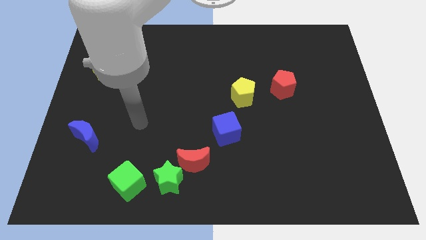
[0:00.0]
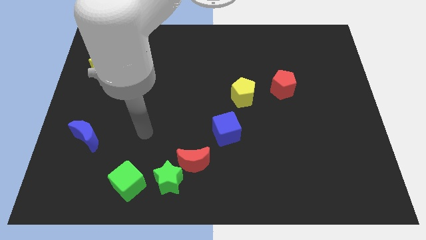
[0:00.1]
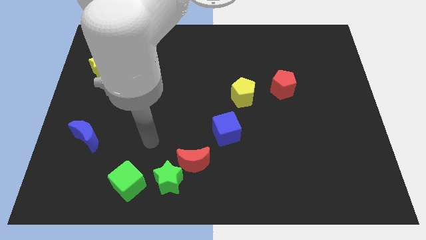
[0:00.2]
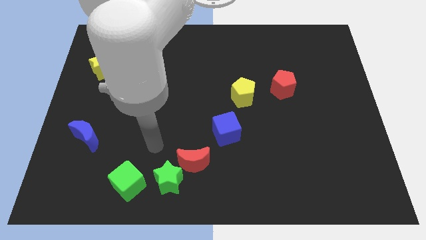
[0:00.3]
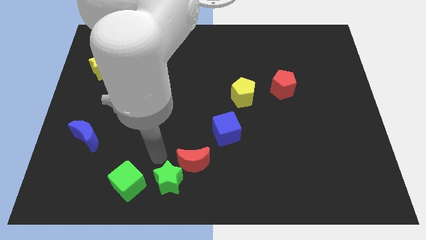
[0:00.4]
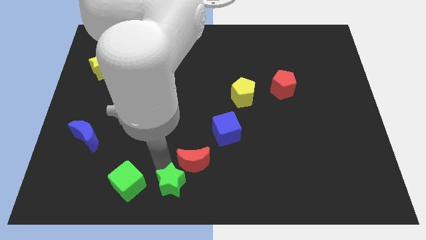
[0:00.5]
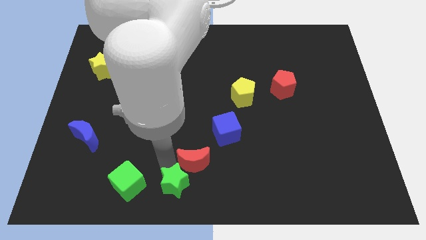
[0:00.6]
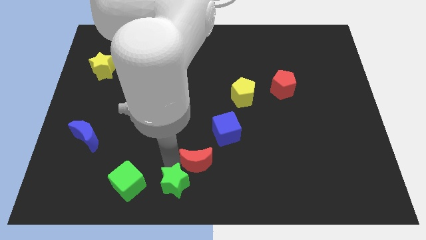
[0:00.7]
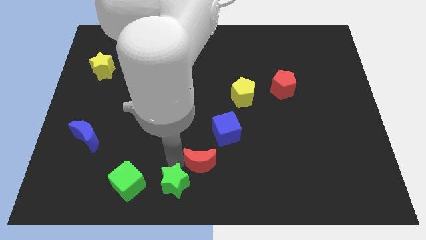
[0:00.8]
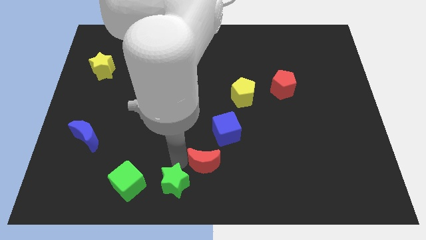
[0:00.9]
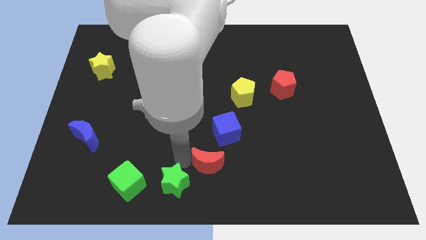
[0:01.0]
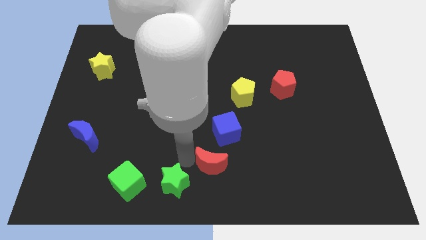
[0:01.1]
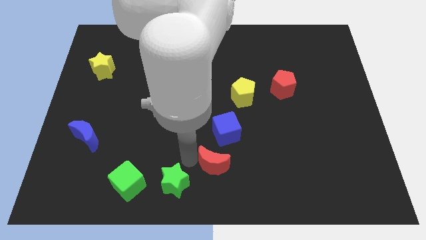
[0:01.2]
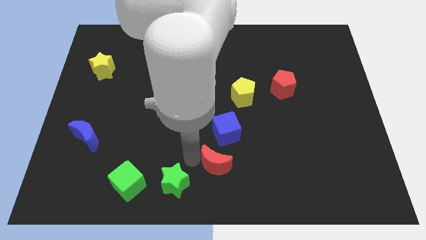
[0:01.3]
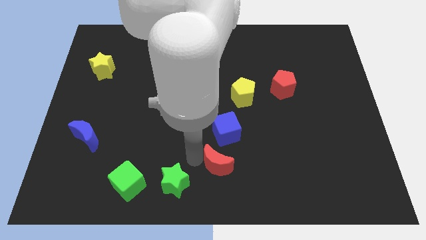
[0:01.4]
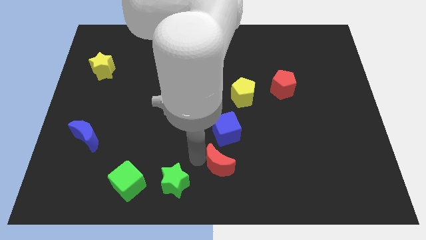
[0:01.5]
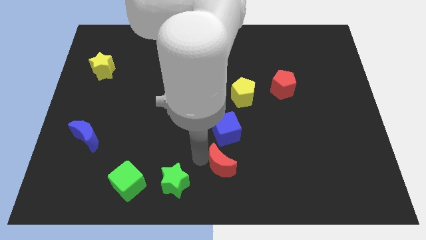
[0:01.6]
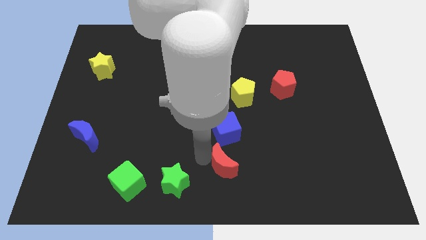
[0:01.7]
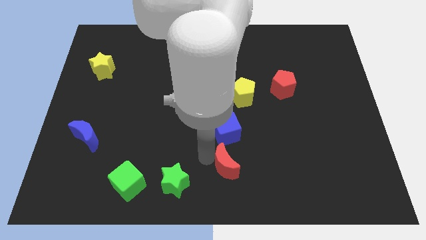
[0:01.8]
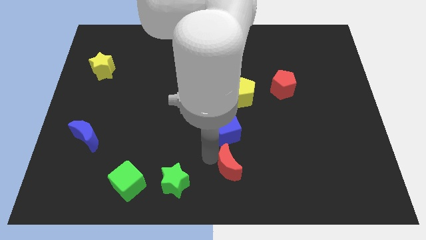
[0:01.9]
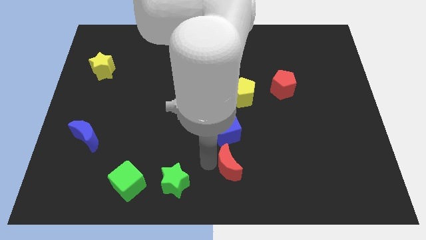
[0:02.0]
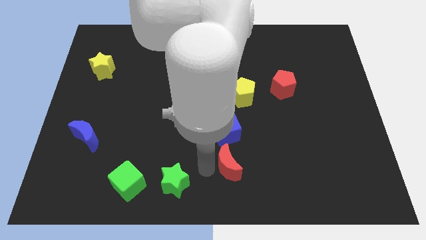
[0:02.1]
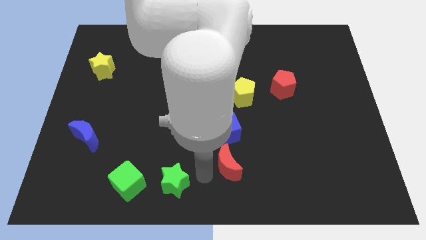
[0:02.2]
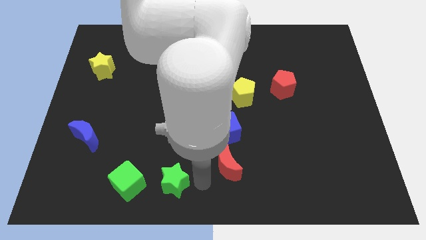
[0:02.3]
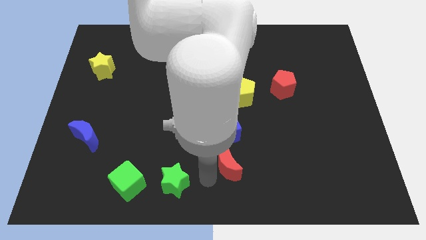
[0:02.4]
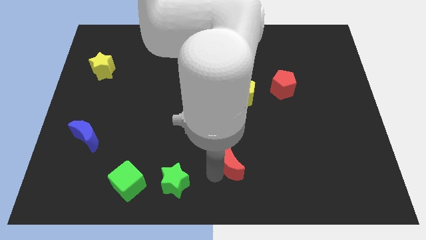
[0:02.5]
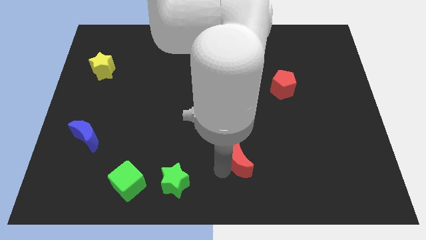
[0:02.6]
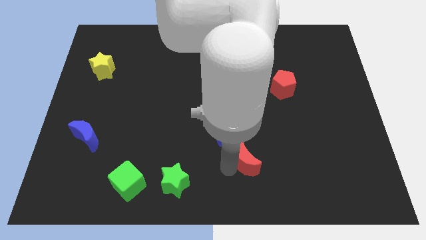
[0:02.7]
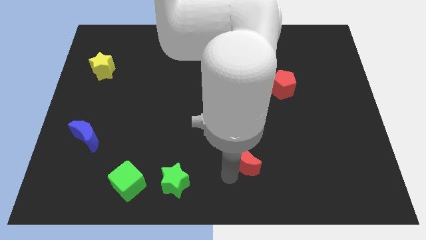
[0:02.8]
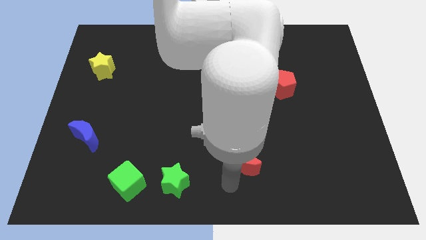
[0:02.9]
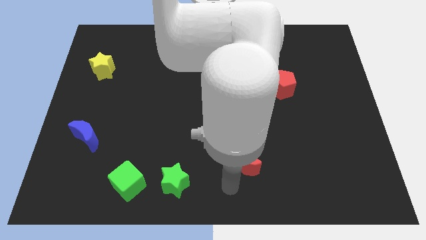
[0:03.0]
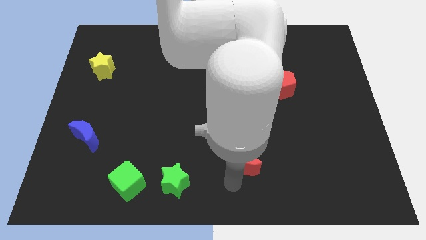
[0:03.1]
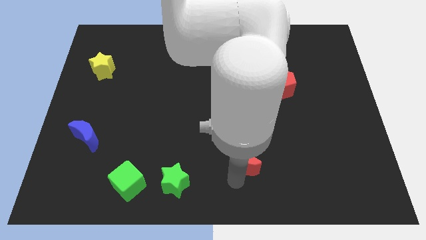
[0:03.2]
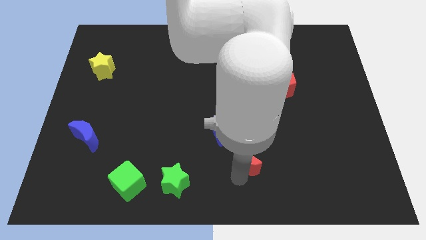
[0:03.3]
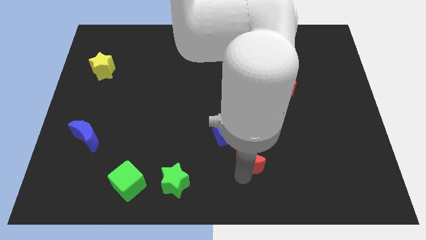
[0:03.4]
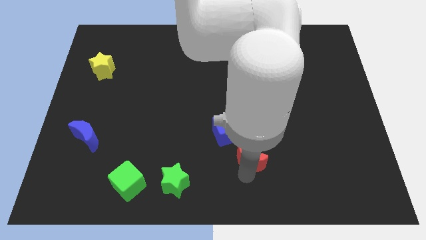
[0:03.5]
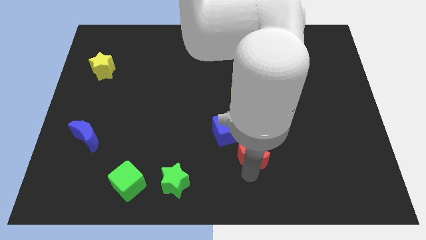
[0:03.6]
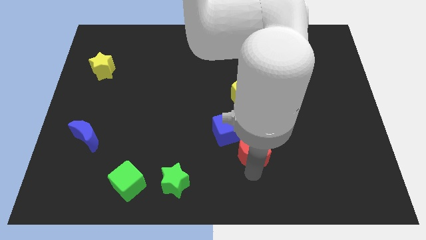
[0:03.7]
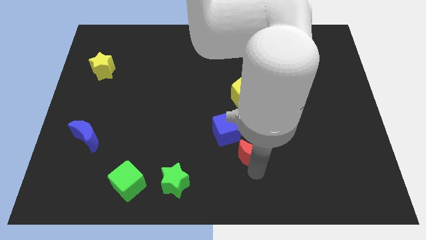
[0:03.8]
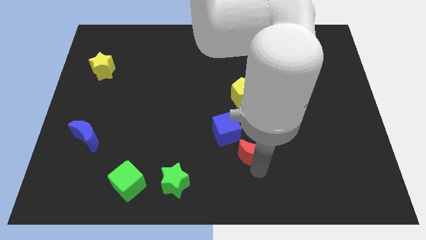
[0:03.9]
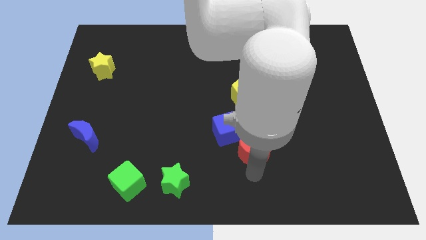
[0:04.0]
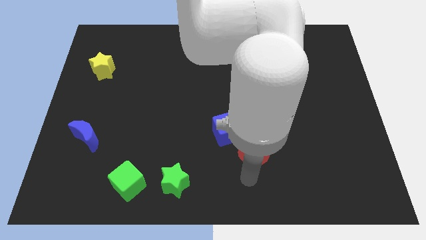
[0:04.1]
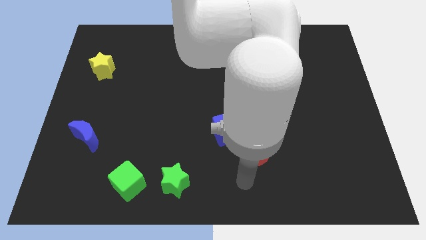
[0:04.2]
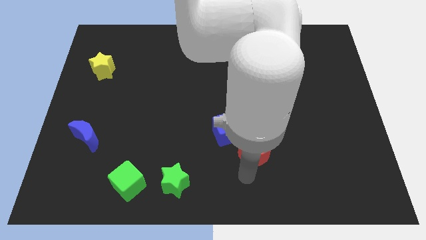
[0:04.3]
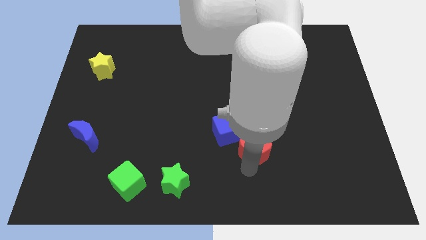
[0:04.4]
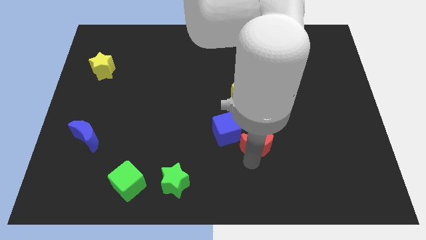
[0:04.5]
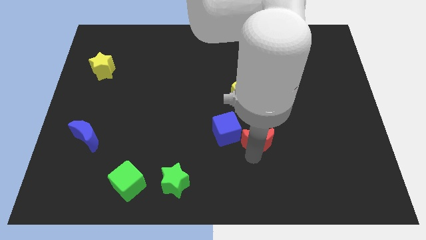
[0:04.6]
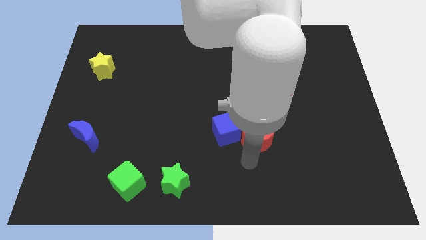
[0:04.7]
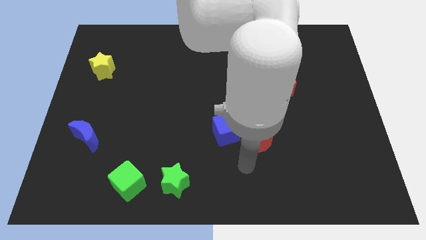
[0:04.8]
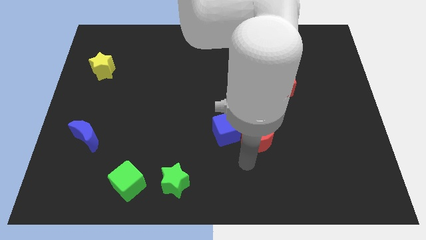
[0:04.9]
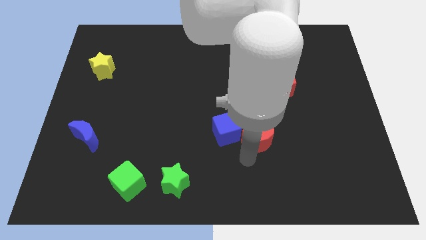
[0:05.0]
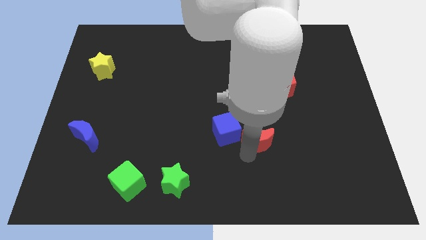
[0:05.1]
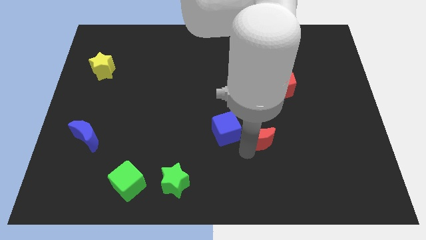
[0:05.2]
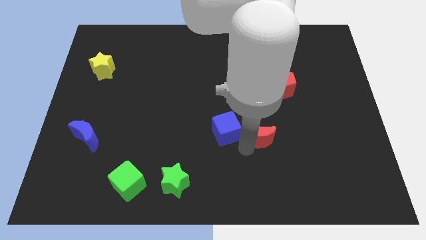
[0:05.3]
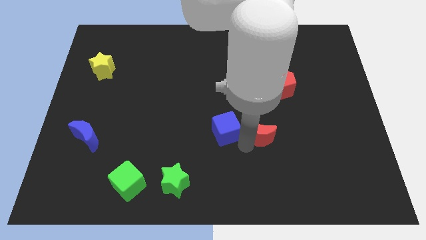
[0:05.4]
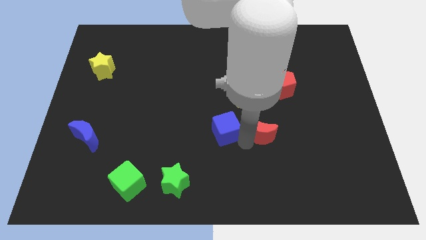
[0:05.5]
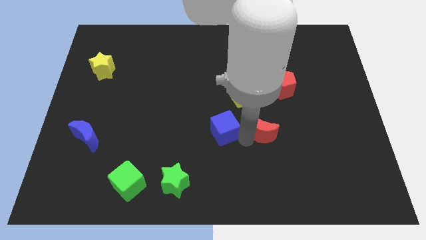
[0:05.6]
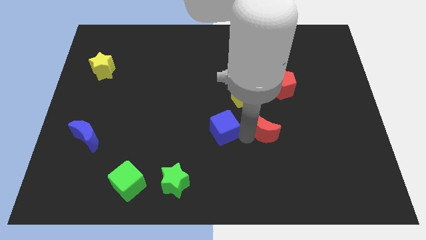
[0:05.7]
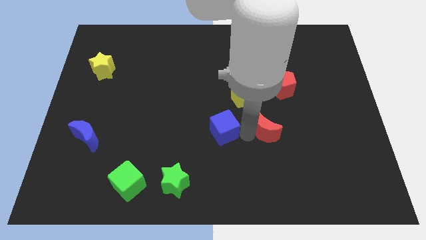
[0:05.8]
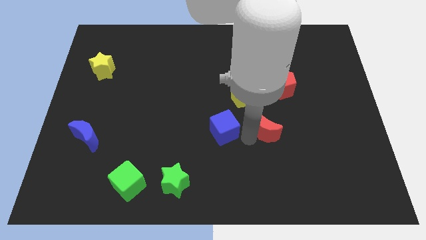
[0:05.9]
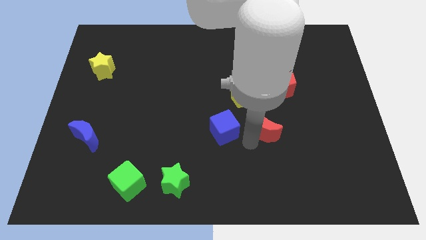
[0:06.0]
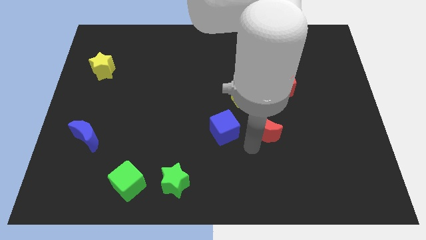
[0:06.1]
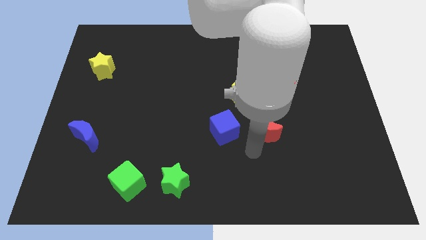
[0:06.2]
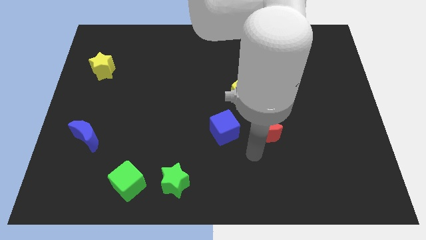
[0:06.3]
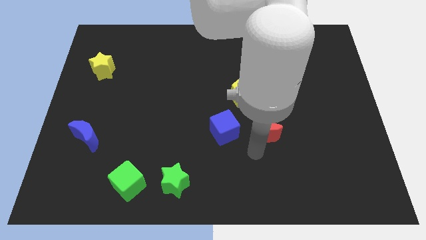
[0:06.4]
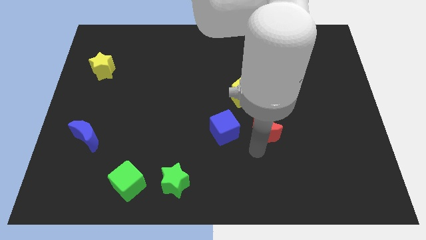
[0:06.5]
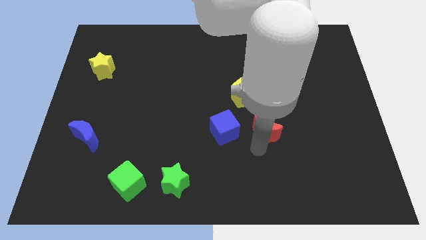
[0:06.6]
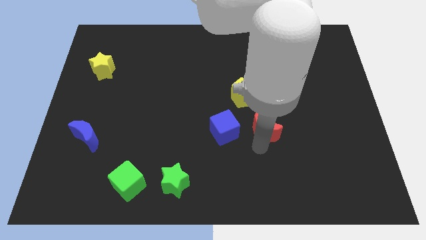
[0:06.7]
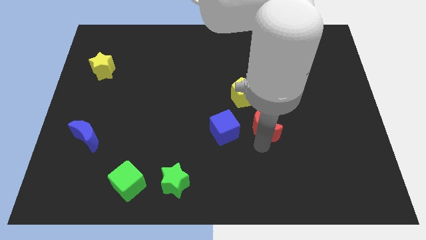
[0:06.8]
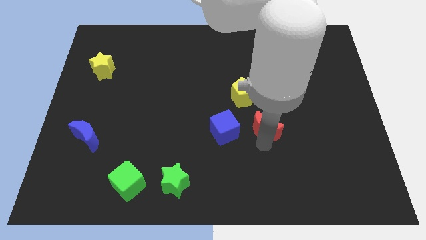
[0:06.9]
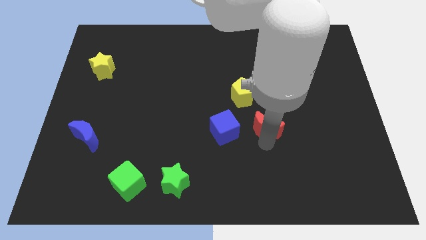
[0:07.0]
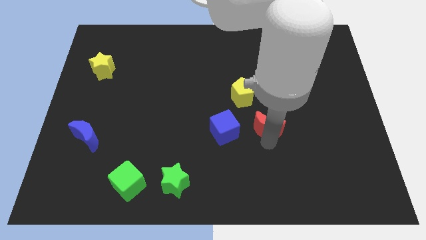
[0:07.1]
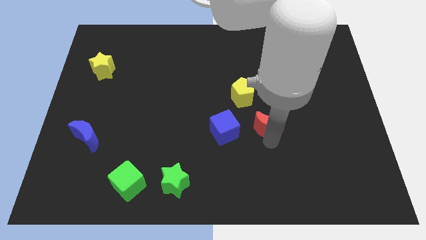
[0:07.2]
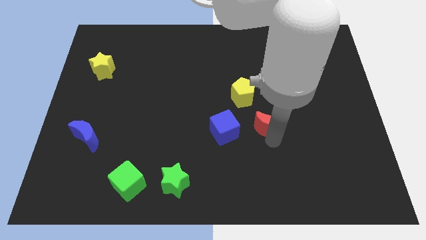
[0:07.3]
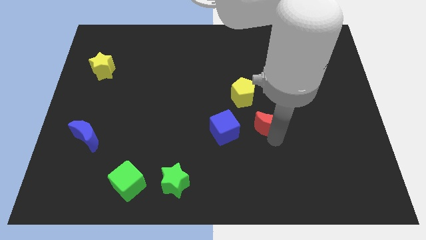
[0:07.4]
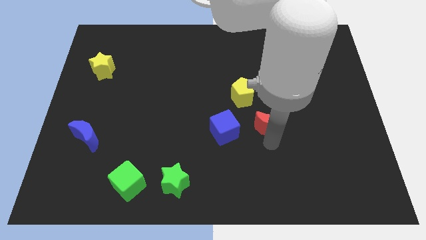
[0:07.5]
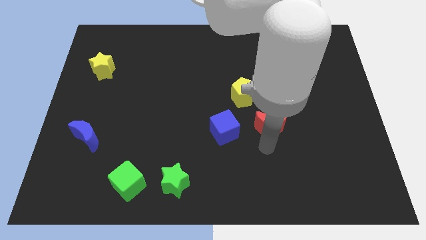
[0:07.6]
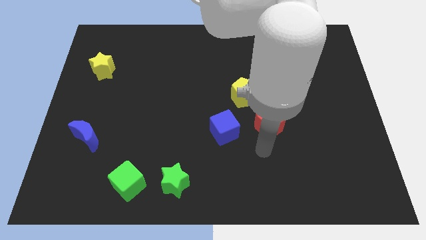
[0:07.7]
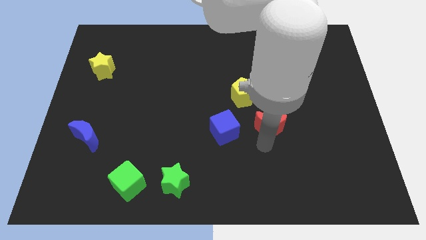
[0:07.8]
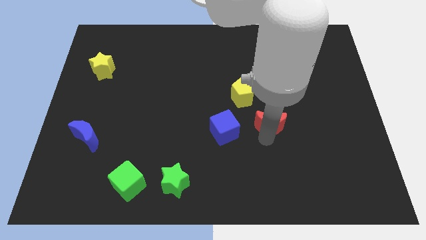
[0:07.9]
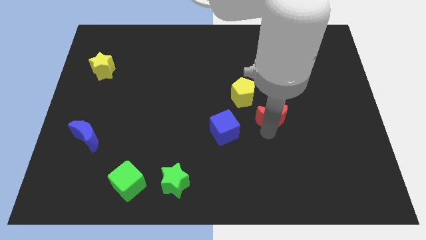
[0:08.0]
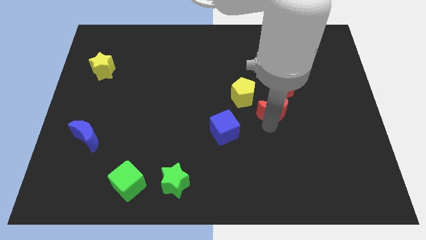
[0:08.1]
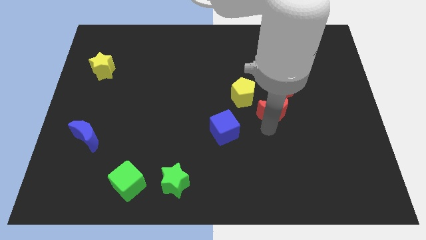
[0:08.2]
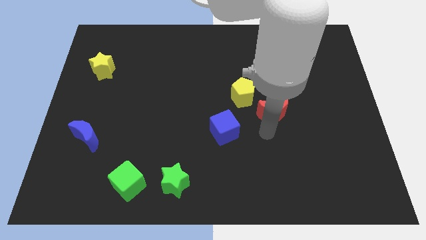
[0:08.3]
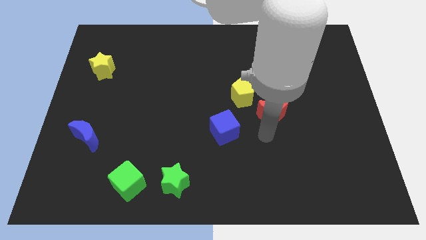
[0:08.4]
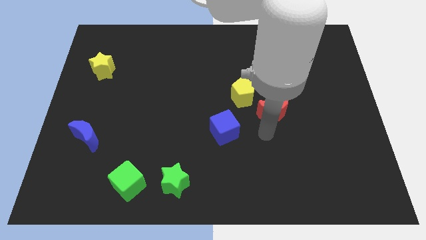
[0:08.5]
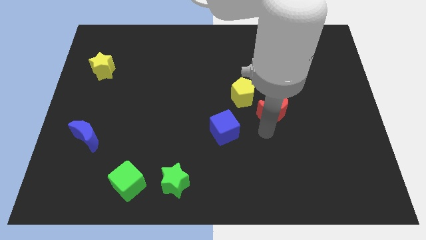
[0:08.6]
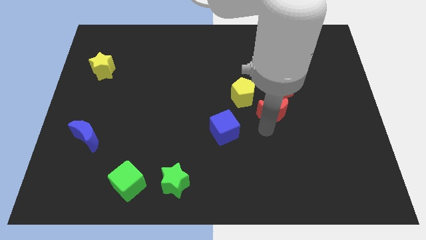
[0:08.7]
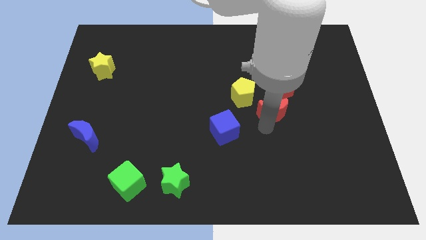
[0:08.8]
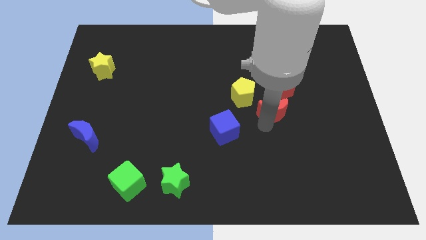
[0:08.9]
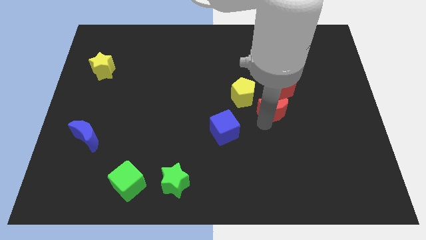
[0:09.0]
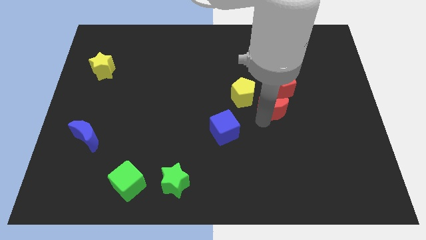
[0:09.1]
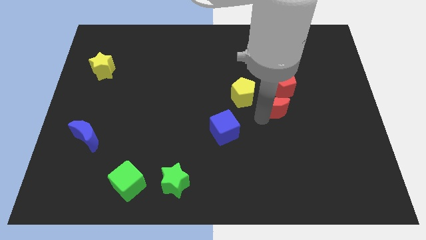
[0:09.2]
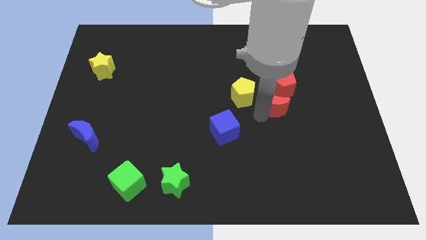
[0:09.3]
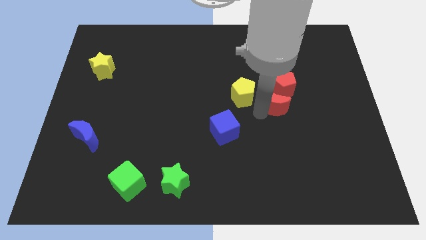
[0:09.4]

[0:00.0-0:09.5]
move the red moon close to the red pentagon
